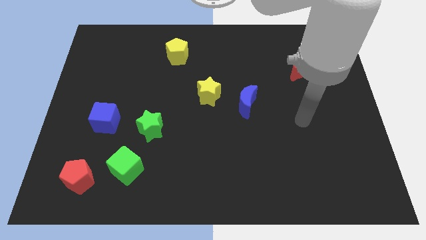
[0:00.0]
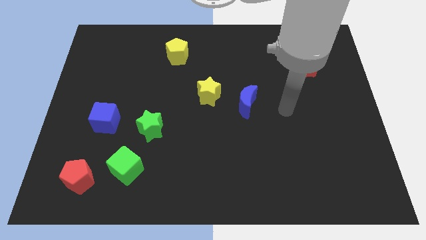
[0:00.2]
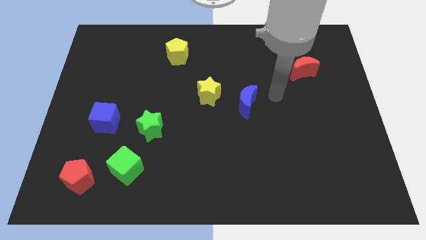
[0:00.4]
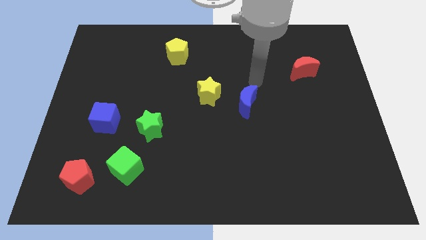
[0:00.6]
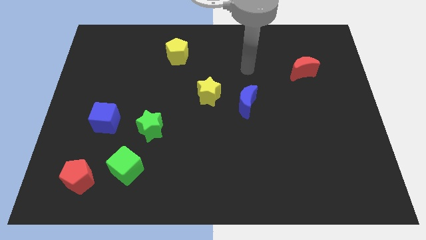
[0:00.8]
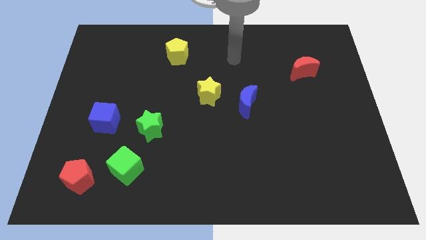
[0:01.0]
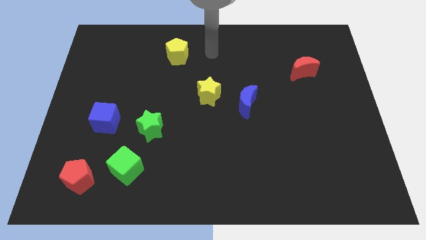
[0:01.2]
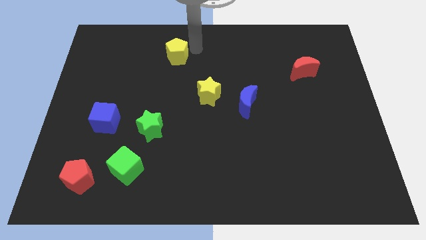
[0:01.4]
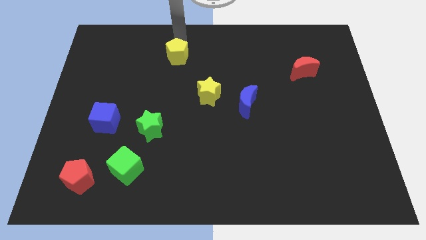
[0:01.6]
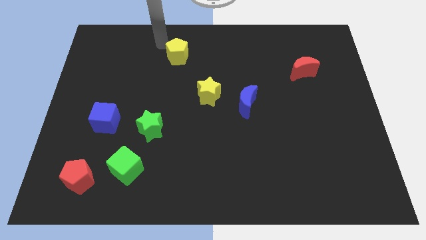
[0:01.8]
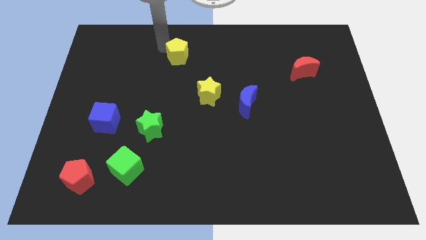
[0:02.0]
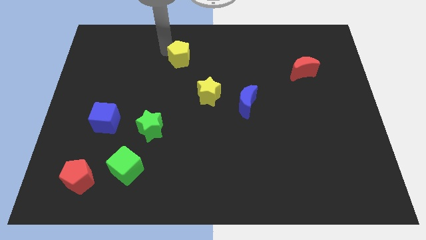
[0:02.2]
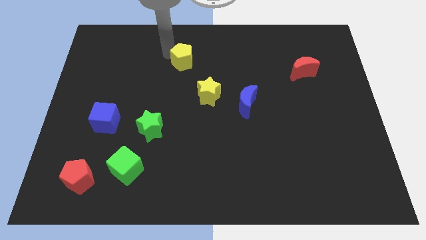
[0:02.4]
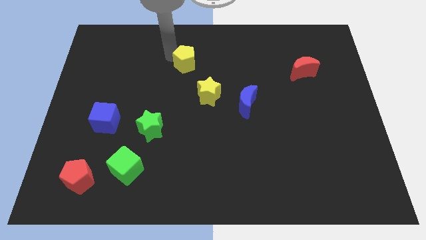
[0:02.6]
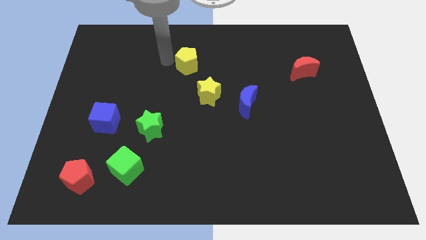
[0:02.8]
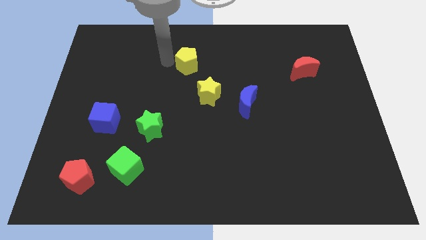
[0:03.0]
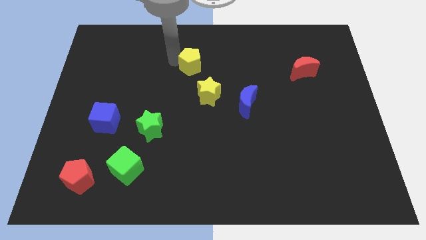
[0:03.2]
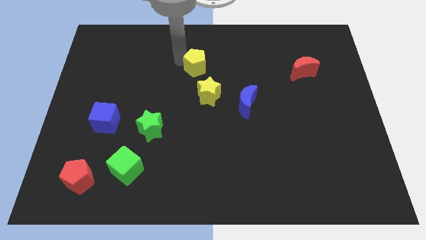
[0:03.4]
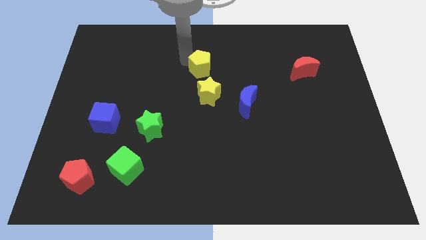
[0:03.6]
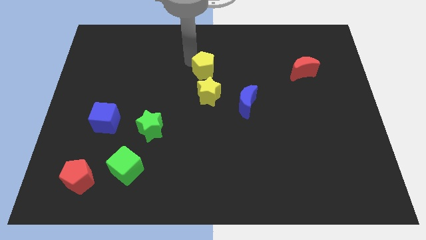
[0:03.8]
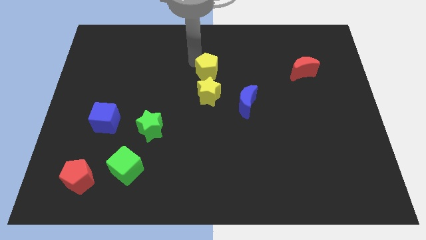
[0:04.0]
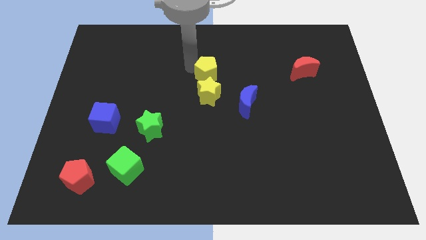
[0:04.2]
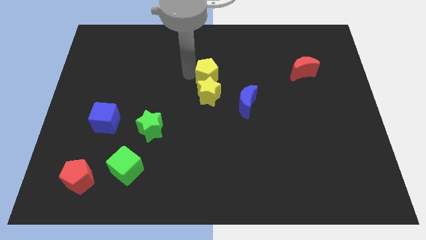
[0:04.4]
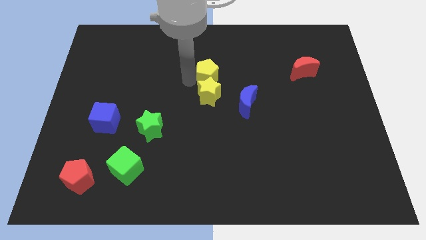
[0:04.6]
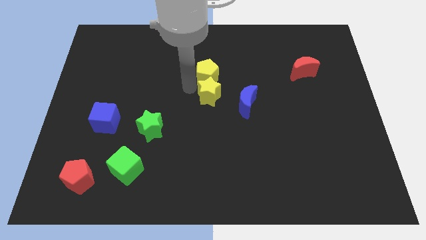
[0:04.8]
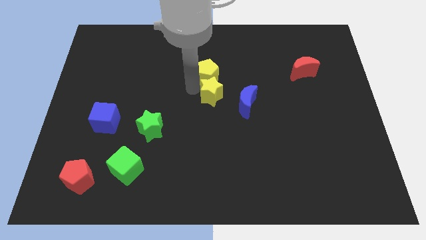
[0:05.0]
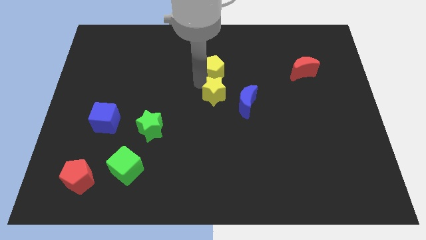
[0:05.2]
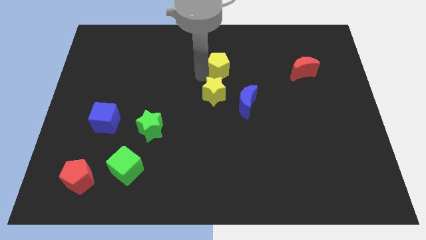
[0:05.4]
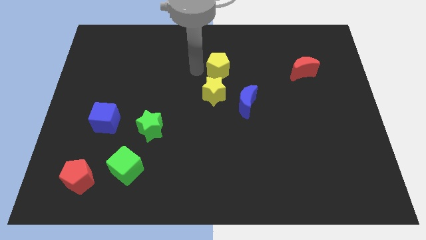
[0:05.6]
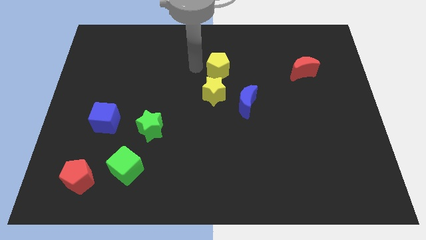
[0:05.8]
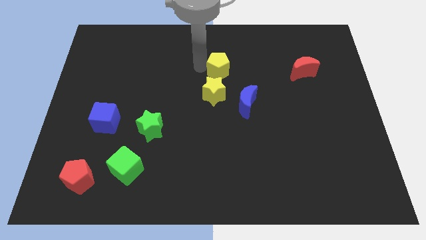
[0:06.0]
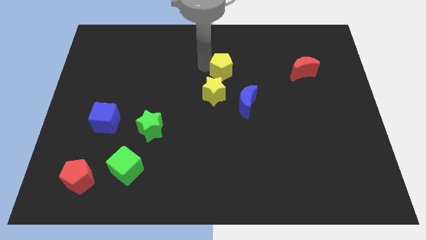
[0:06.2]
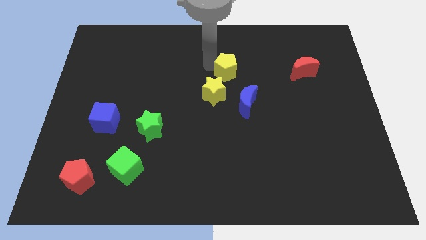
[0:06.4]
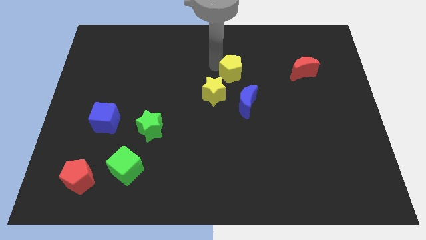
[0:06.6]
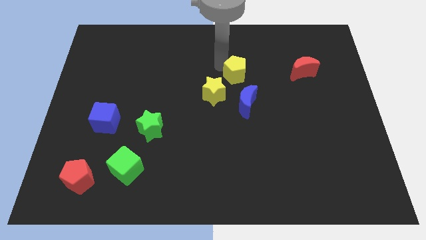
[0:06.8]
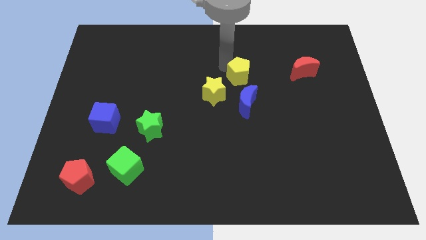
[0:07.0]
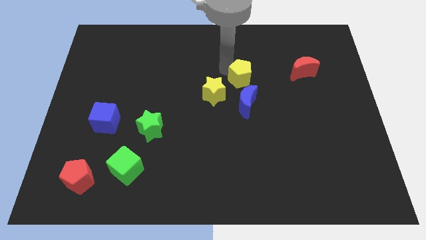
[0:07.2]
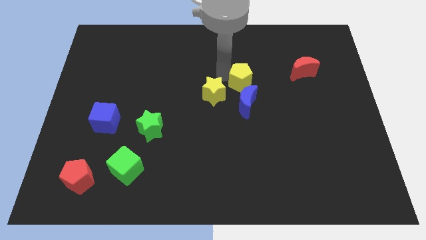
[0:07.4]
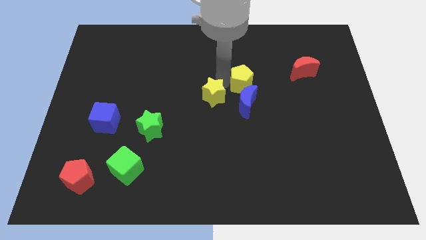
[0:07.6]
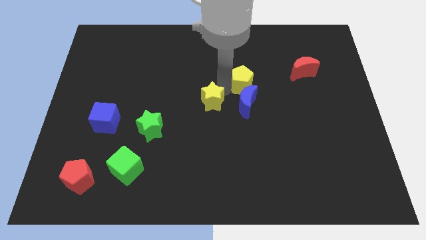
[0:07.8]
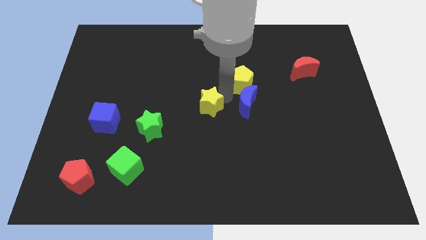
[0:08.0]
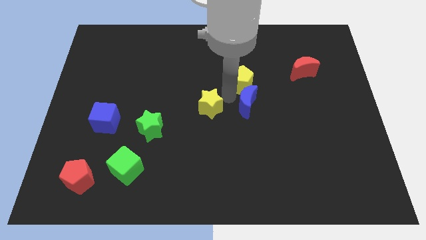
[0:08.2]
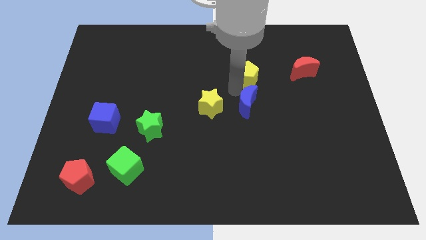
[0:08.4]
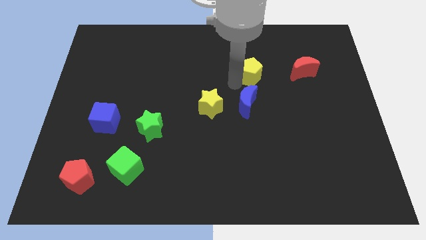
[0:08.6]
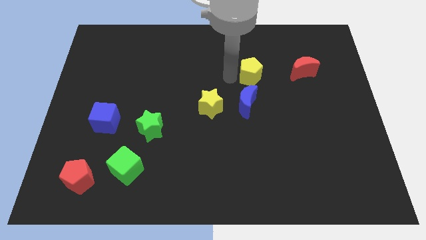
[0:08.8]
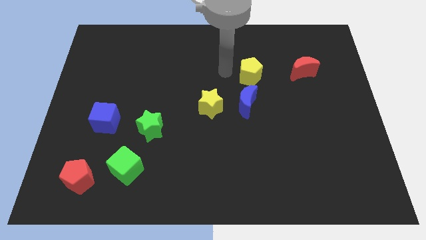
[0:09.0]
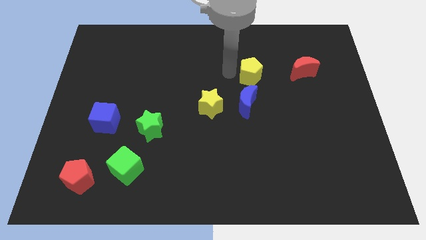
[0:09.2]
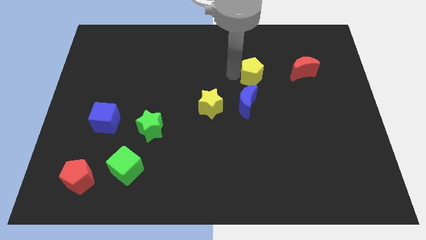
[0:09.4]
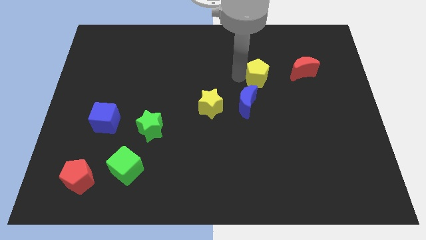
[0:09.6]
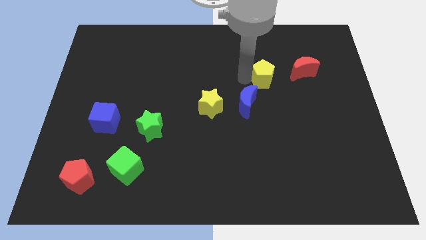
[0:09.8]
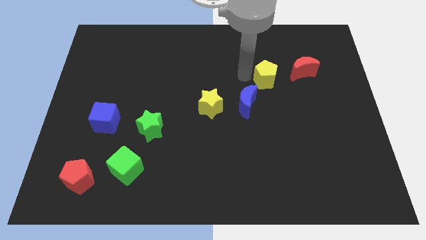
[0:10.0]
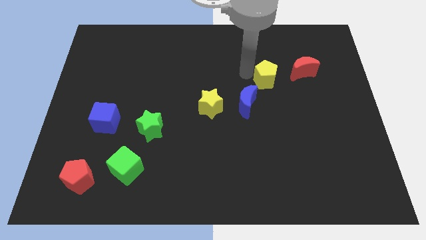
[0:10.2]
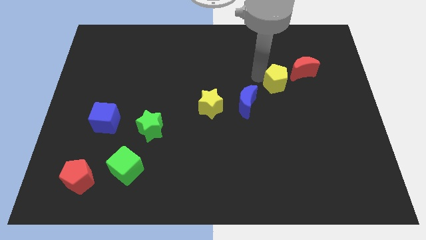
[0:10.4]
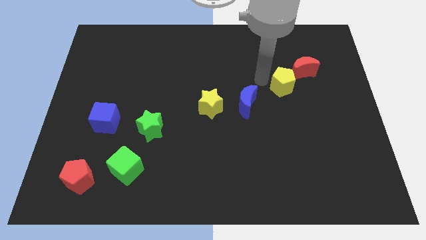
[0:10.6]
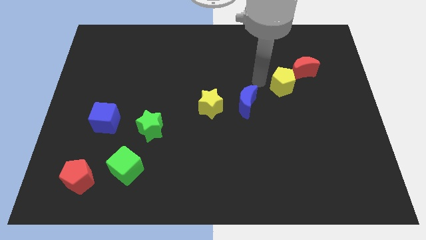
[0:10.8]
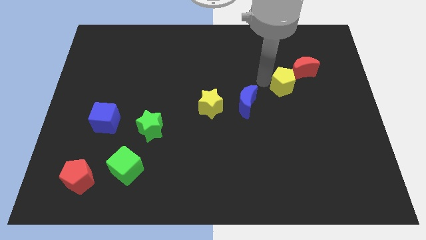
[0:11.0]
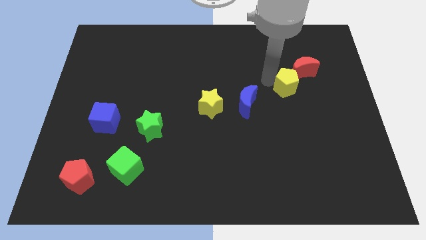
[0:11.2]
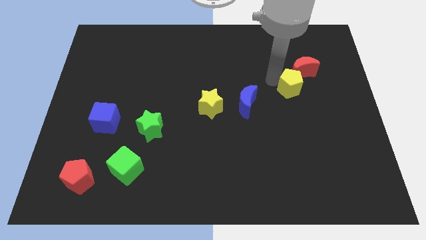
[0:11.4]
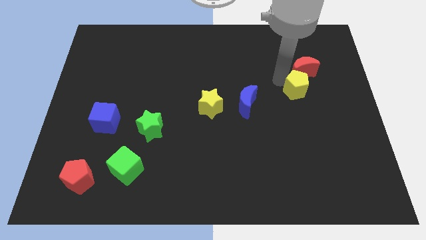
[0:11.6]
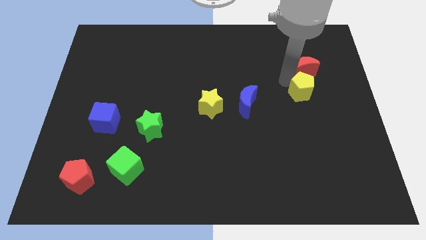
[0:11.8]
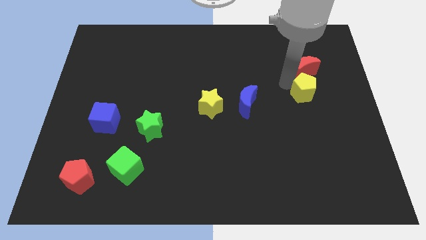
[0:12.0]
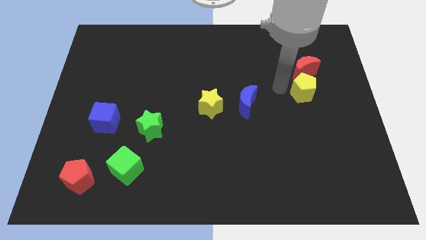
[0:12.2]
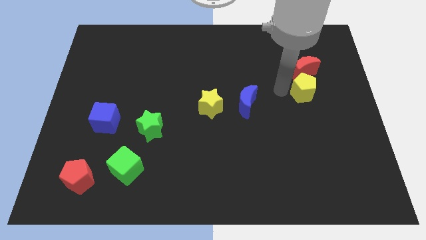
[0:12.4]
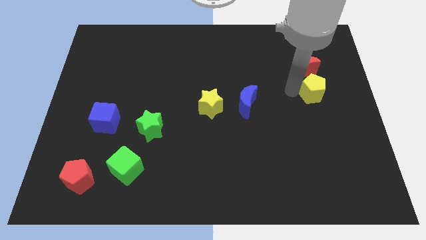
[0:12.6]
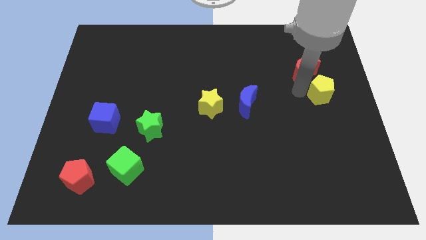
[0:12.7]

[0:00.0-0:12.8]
put the yellow pentagon to the center right
